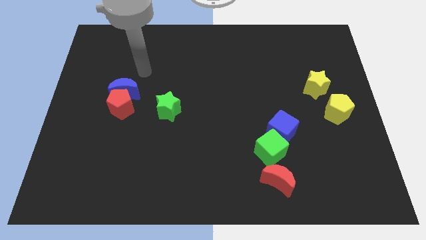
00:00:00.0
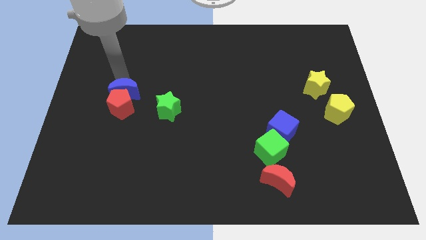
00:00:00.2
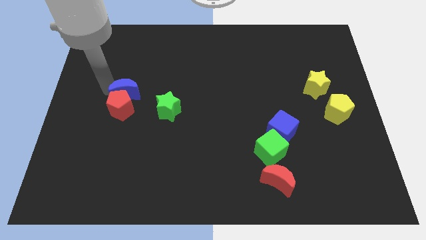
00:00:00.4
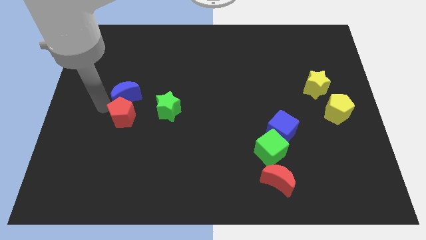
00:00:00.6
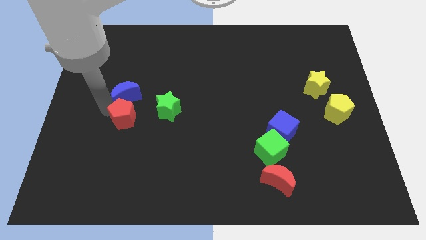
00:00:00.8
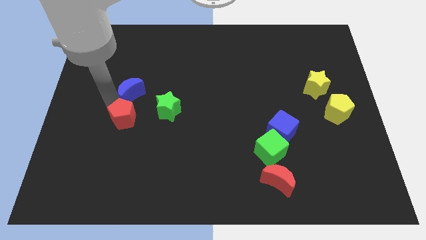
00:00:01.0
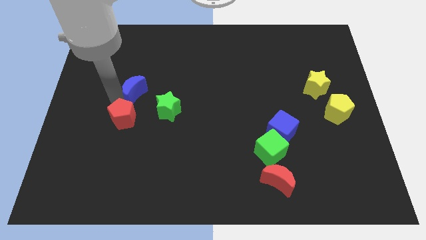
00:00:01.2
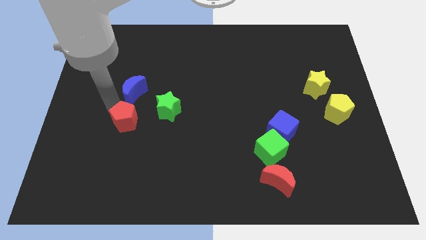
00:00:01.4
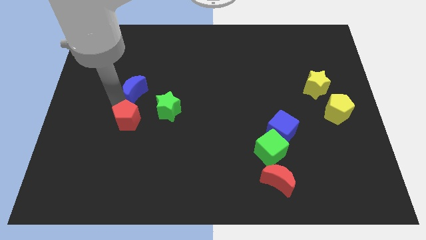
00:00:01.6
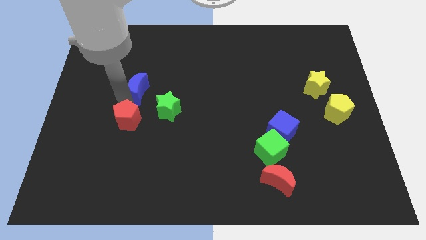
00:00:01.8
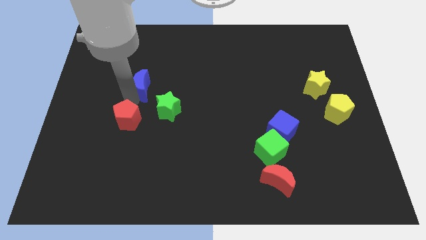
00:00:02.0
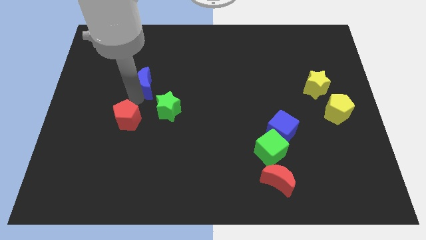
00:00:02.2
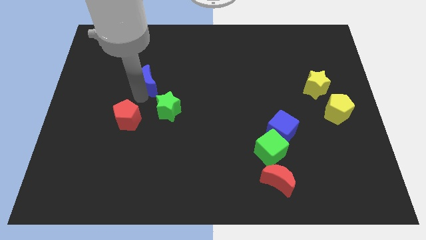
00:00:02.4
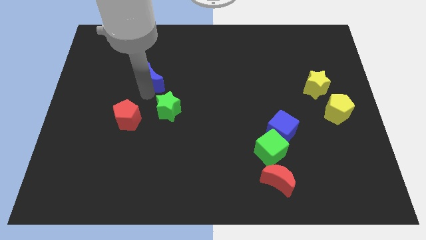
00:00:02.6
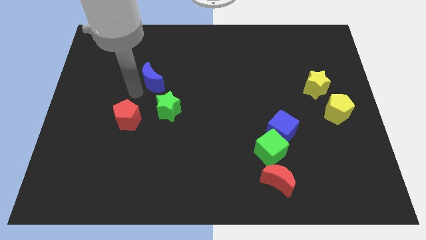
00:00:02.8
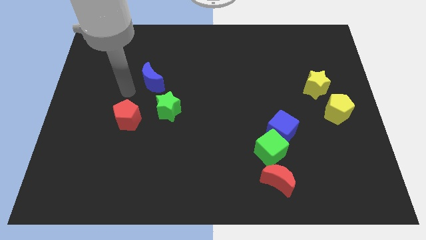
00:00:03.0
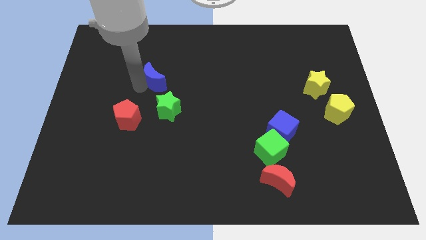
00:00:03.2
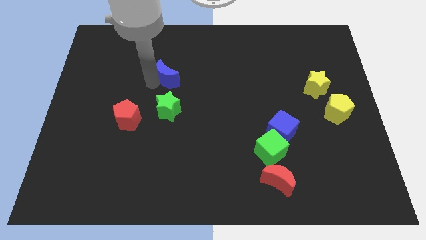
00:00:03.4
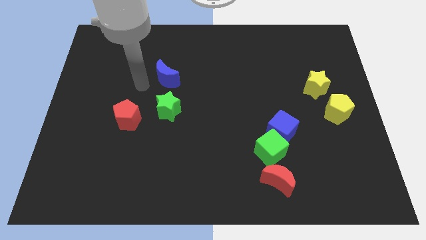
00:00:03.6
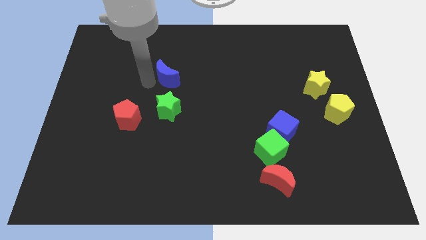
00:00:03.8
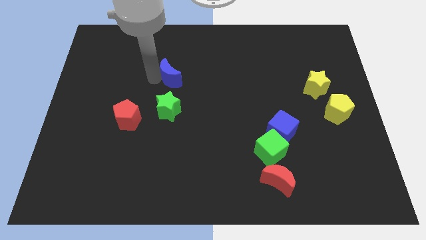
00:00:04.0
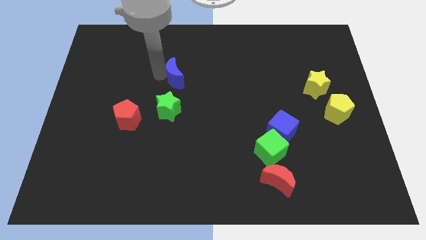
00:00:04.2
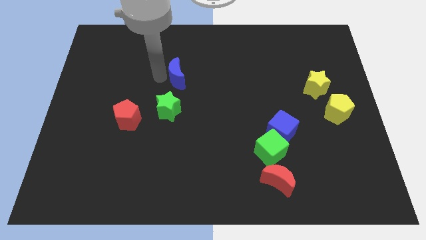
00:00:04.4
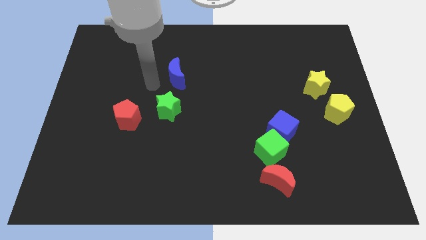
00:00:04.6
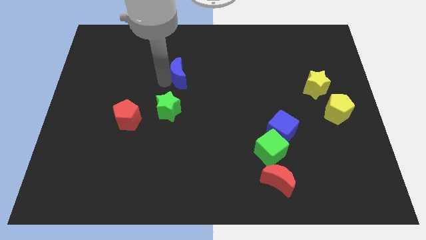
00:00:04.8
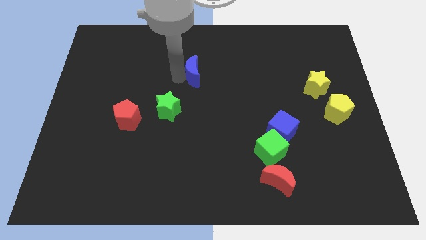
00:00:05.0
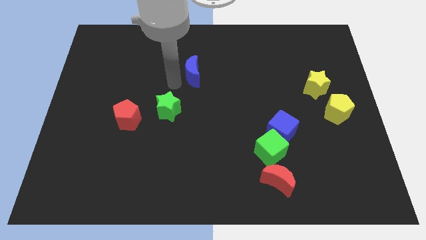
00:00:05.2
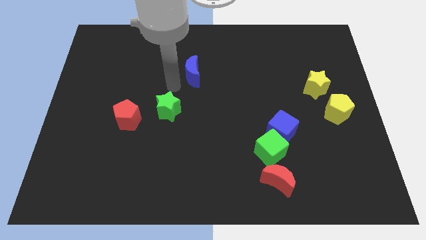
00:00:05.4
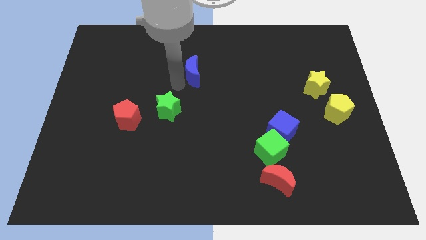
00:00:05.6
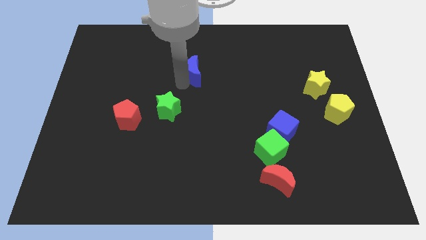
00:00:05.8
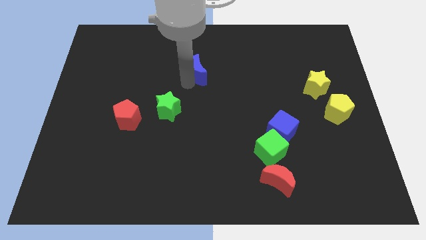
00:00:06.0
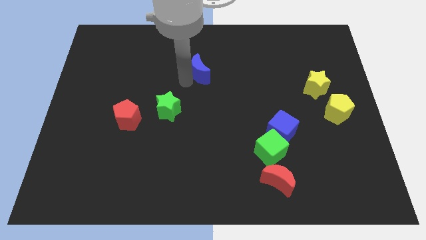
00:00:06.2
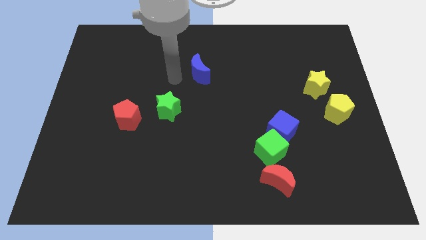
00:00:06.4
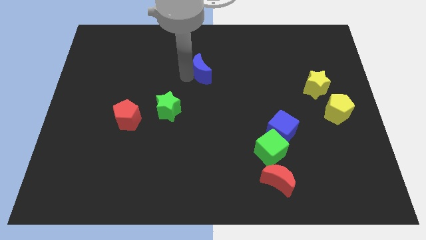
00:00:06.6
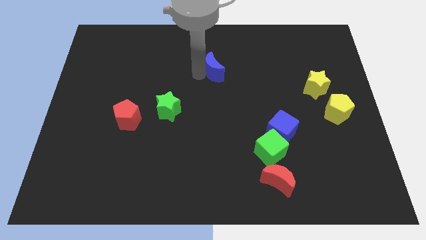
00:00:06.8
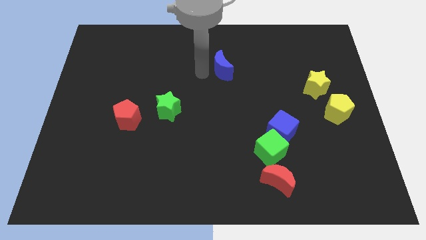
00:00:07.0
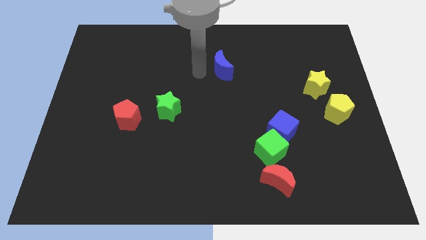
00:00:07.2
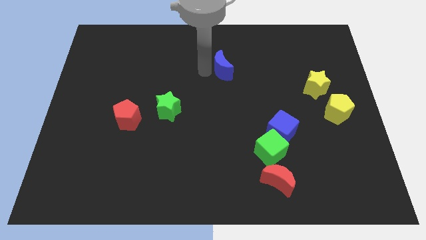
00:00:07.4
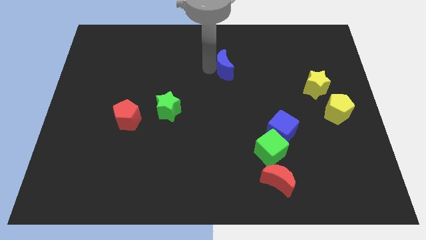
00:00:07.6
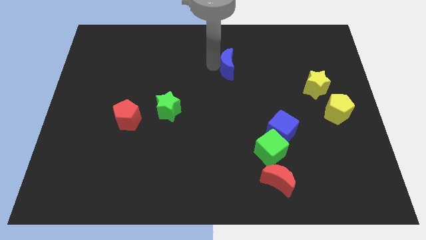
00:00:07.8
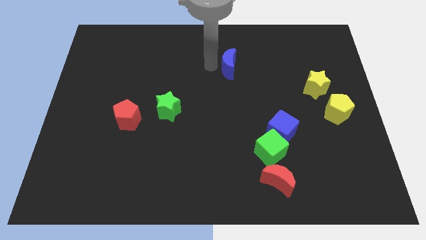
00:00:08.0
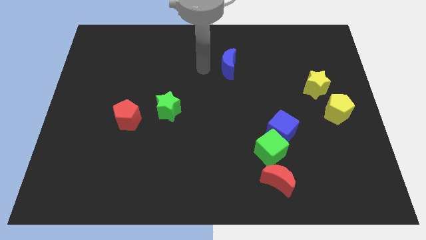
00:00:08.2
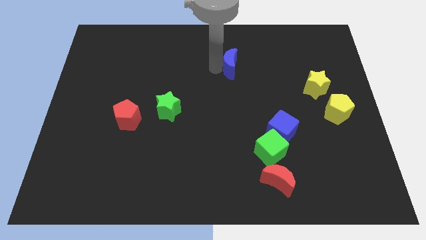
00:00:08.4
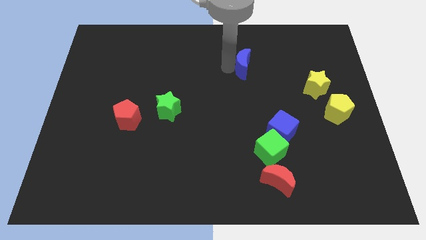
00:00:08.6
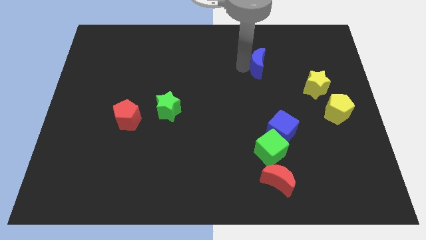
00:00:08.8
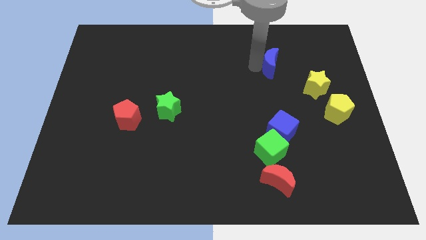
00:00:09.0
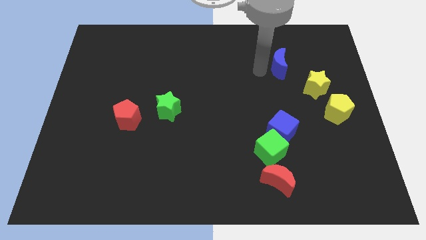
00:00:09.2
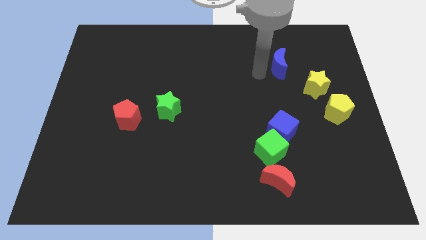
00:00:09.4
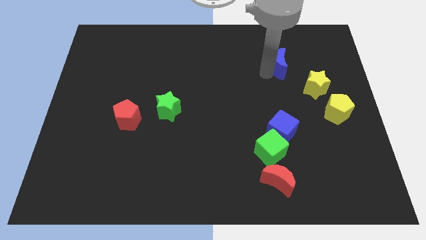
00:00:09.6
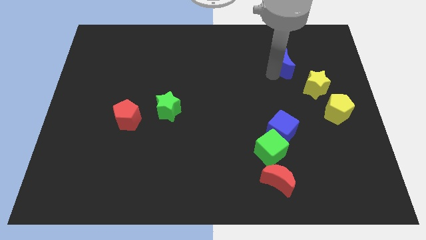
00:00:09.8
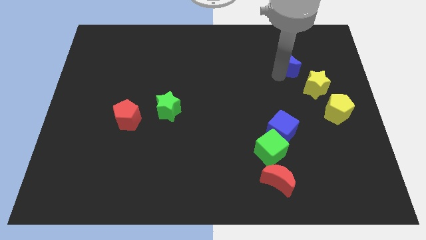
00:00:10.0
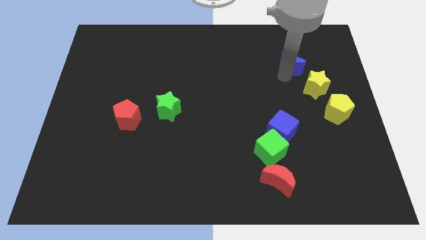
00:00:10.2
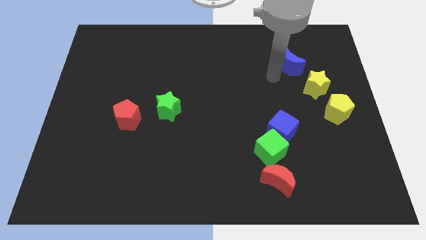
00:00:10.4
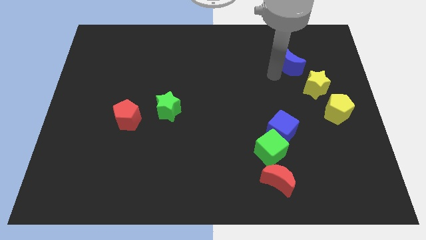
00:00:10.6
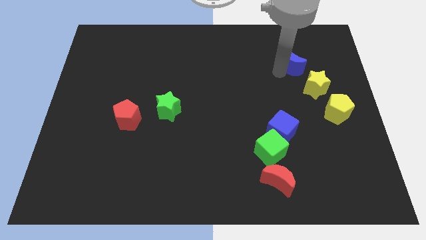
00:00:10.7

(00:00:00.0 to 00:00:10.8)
move the blue moon above the yellow star

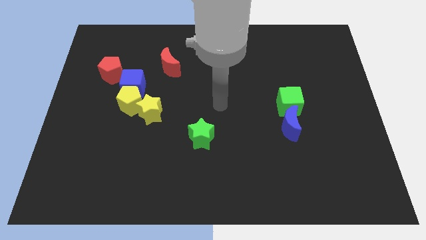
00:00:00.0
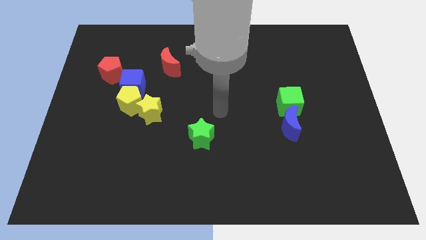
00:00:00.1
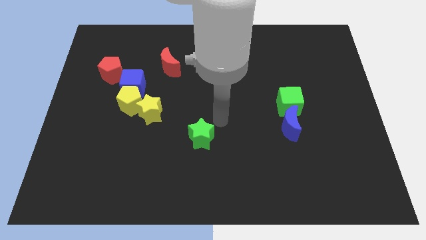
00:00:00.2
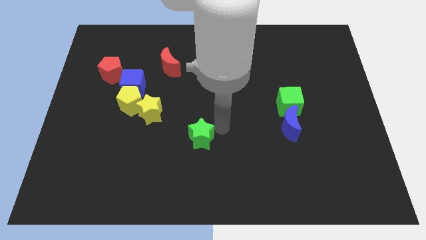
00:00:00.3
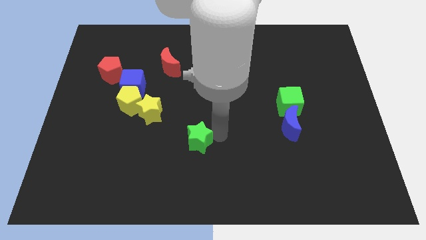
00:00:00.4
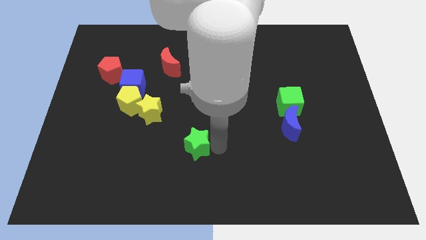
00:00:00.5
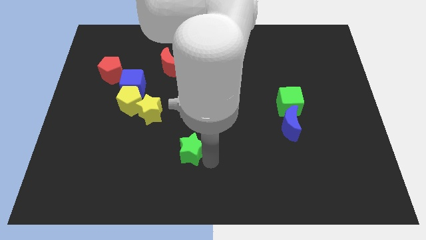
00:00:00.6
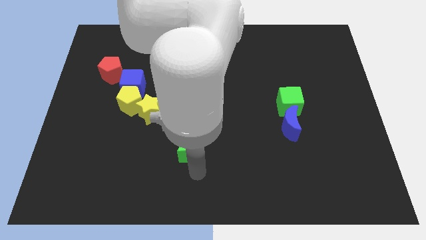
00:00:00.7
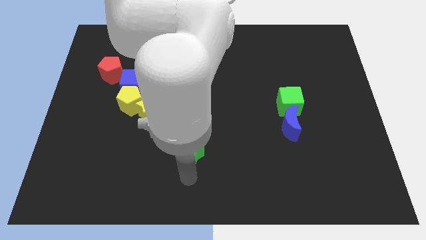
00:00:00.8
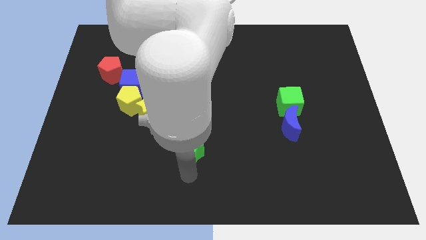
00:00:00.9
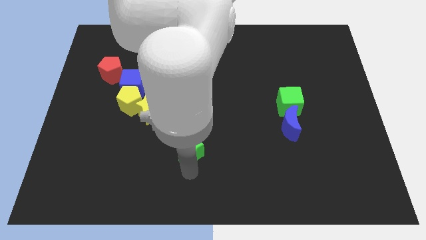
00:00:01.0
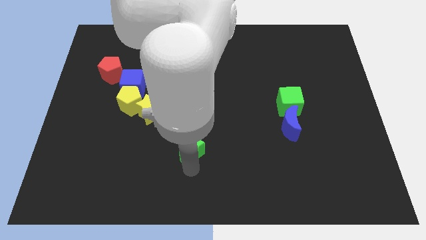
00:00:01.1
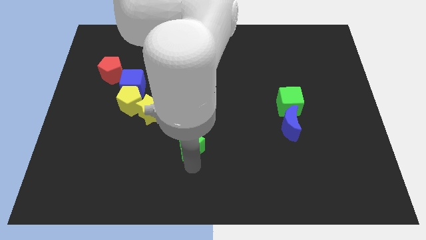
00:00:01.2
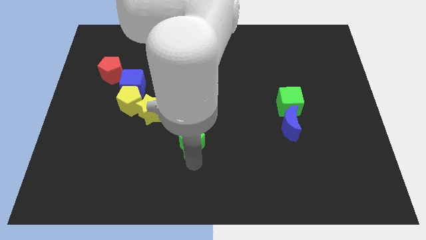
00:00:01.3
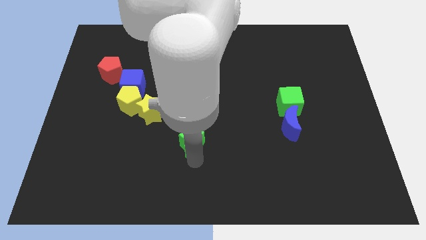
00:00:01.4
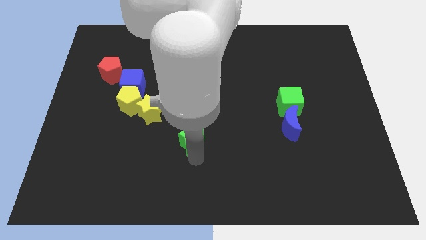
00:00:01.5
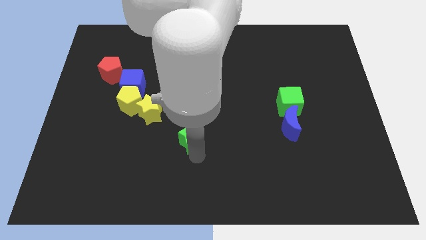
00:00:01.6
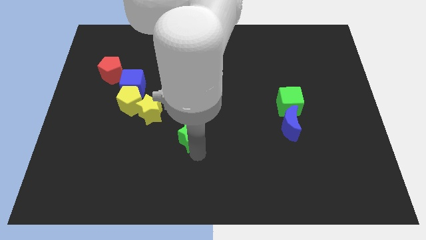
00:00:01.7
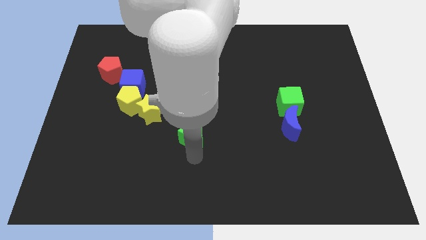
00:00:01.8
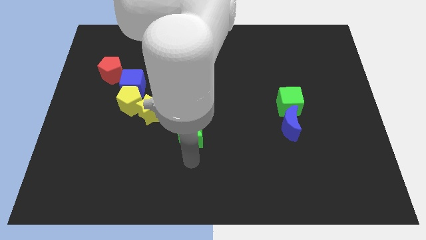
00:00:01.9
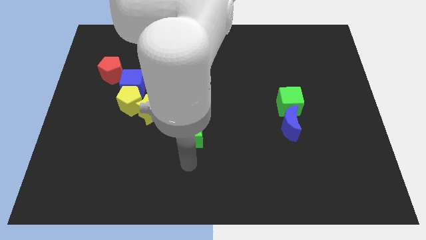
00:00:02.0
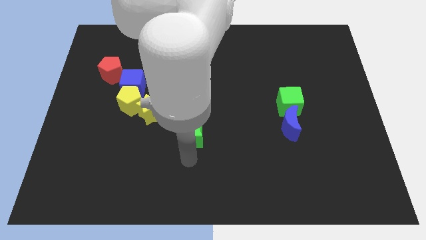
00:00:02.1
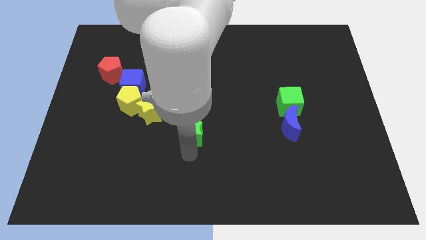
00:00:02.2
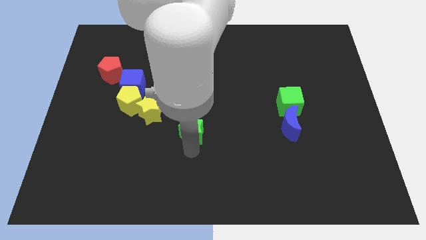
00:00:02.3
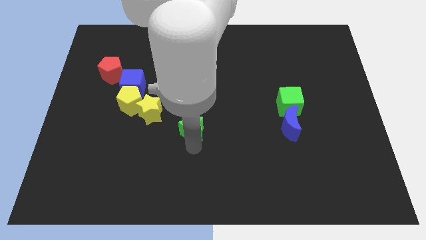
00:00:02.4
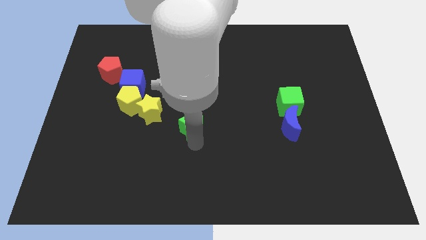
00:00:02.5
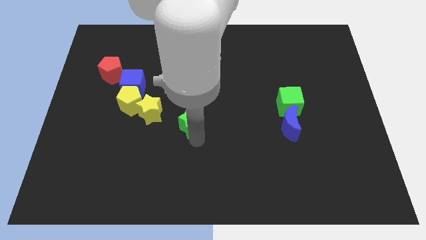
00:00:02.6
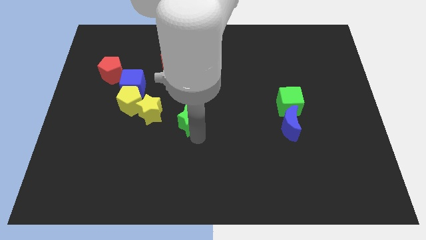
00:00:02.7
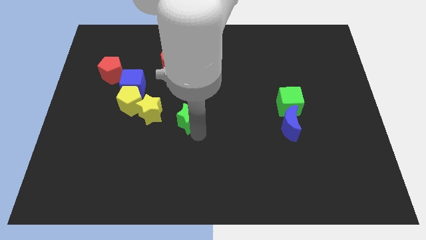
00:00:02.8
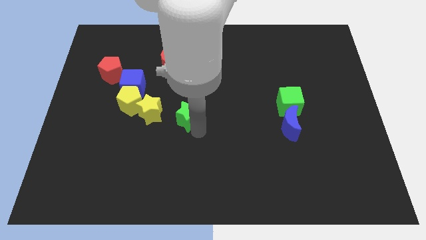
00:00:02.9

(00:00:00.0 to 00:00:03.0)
put the green star to the right side of the yellow pentagon
